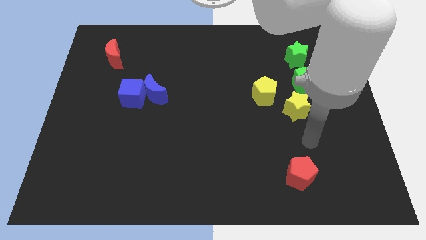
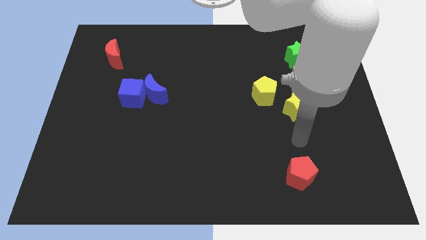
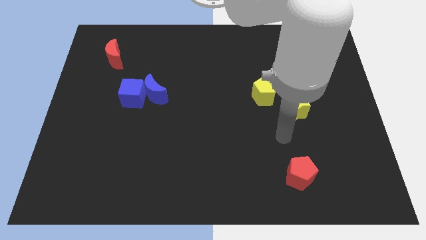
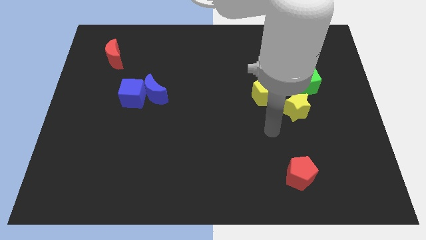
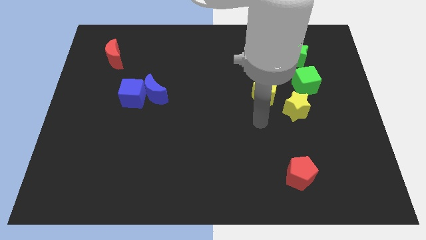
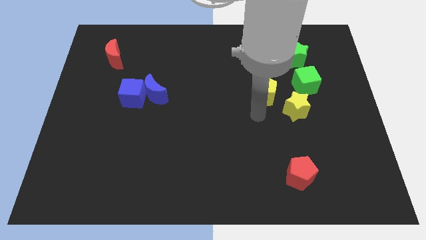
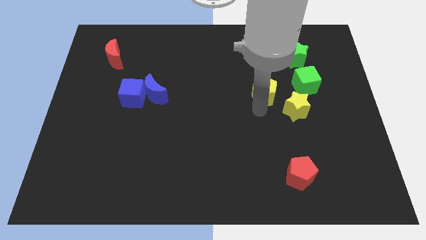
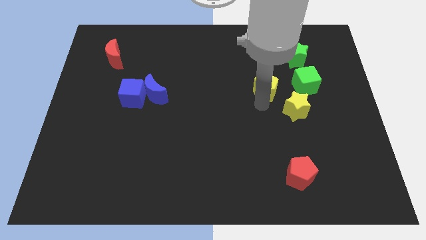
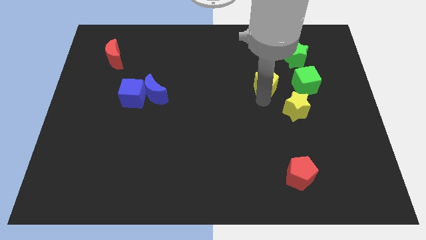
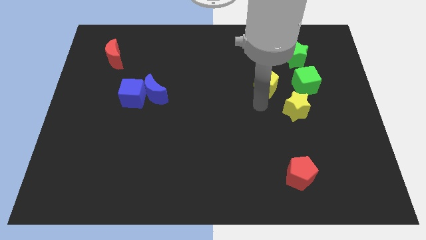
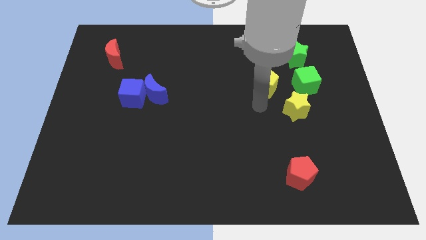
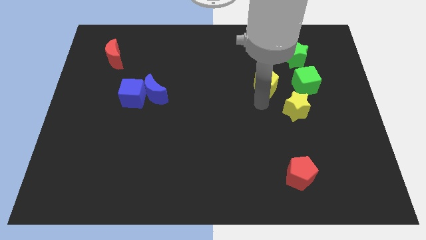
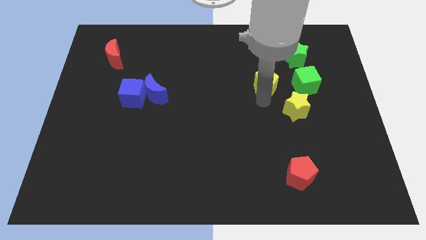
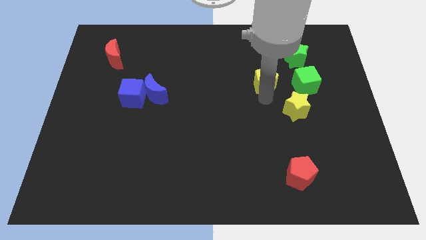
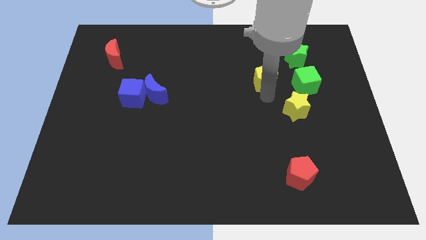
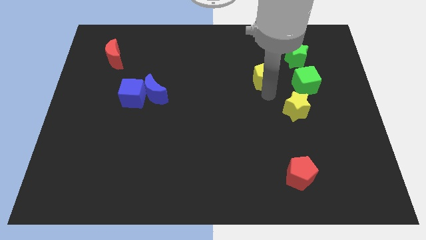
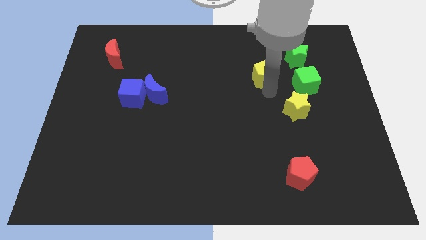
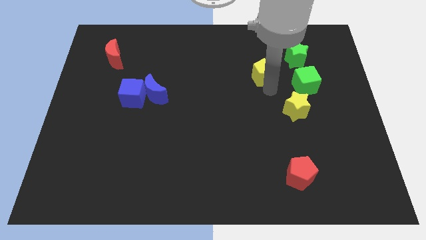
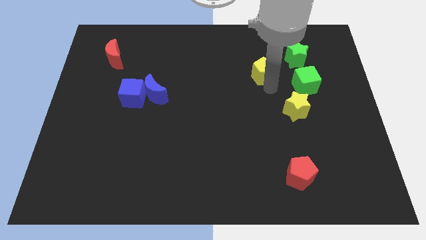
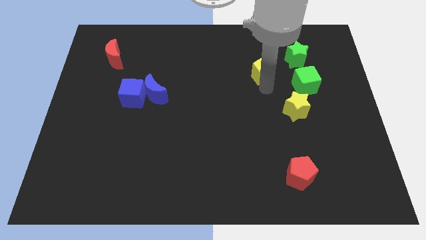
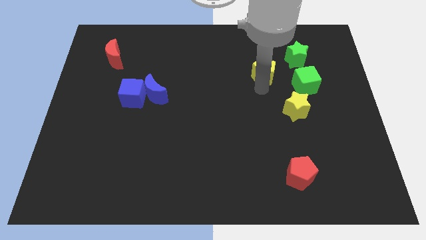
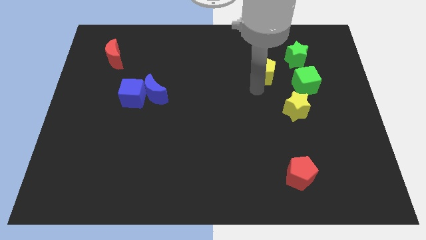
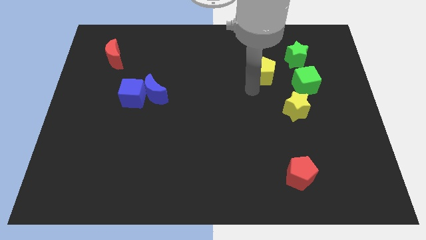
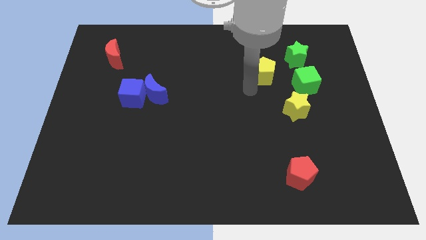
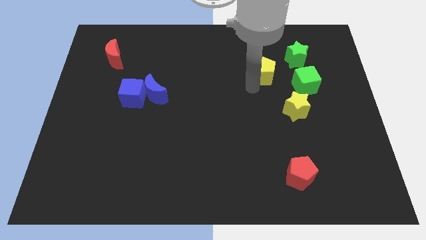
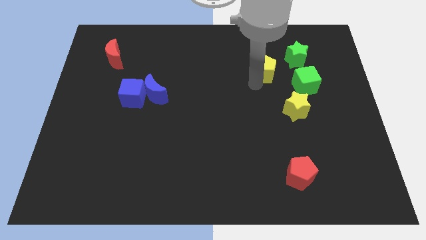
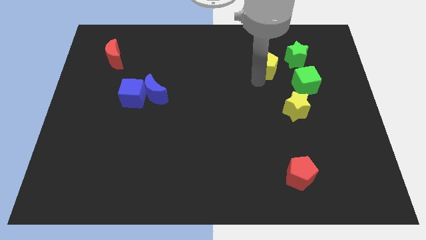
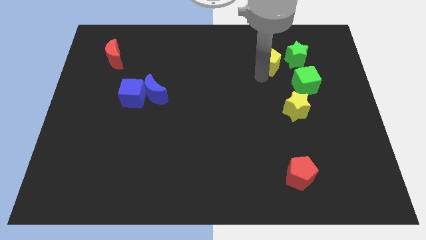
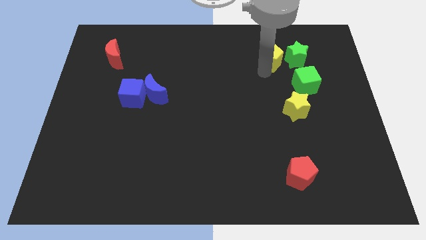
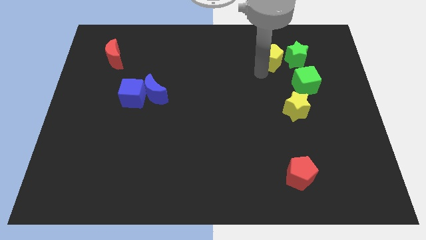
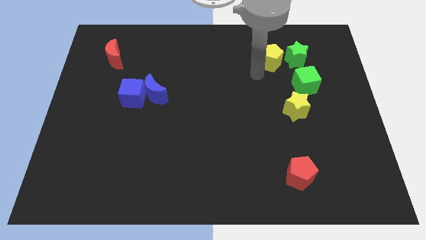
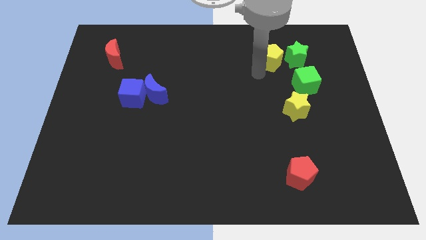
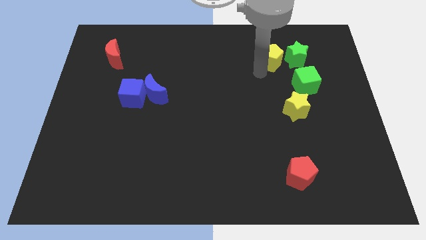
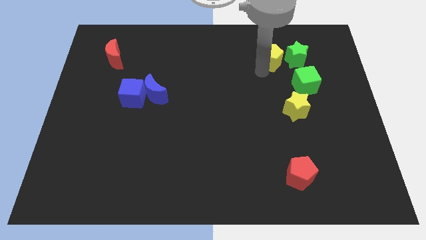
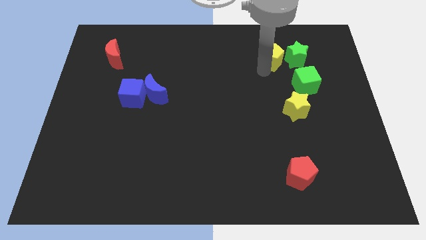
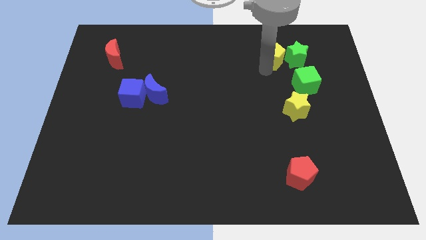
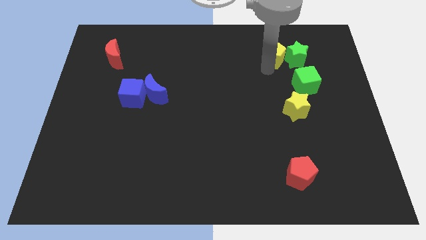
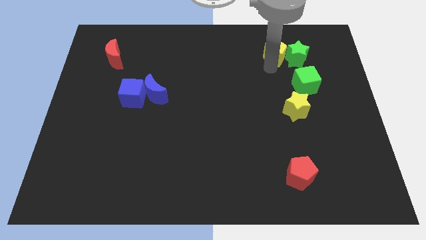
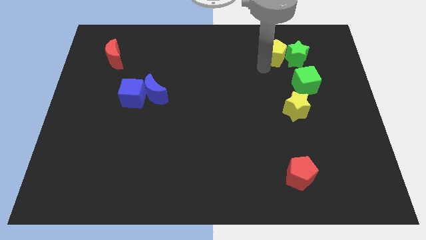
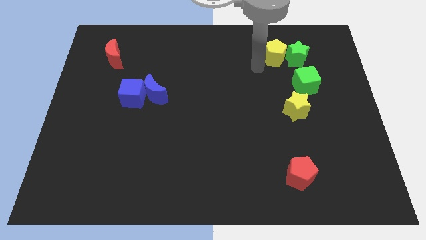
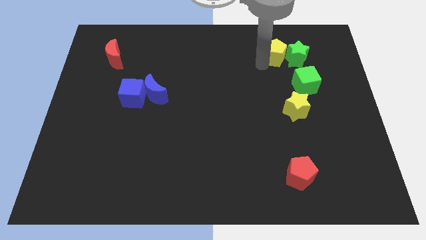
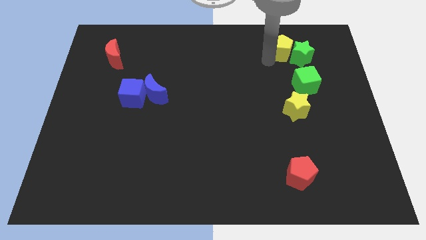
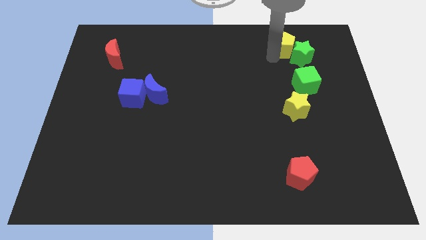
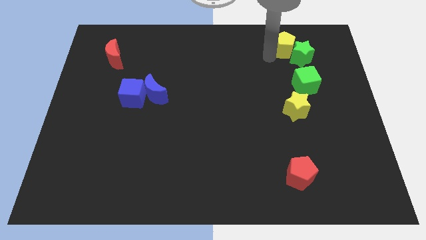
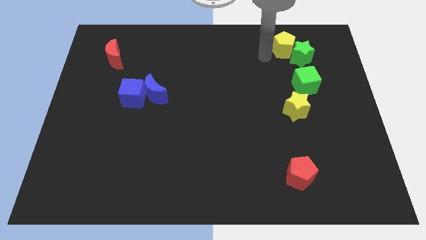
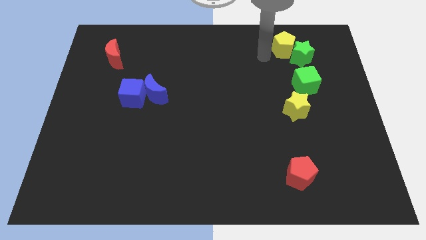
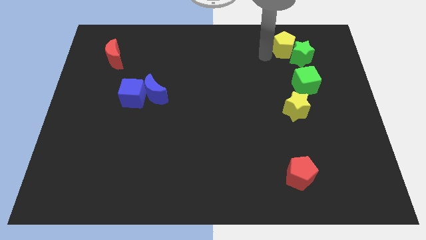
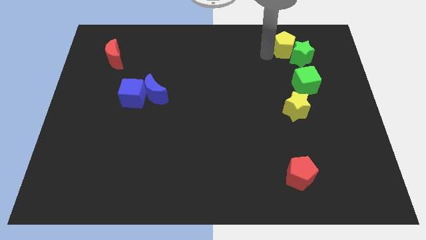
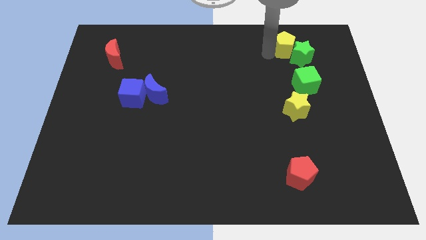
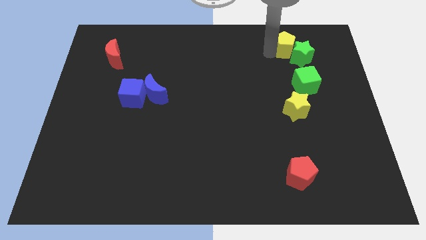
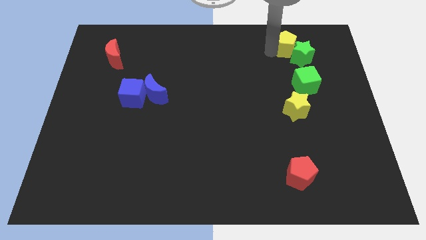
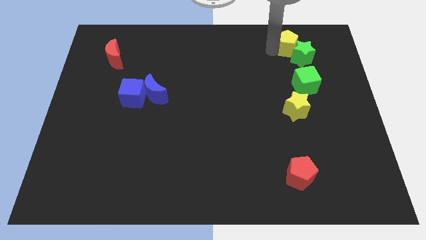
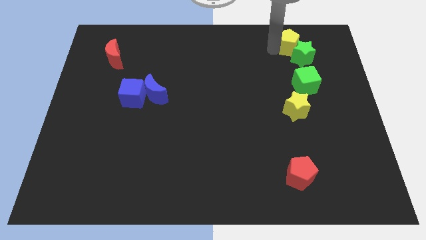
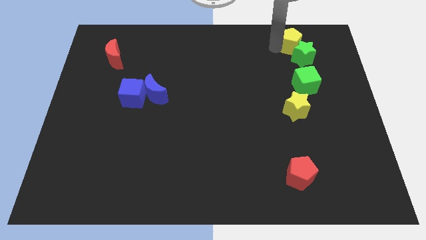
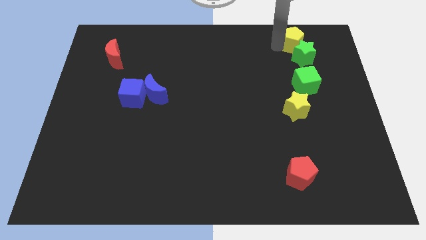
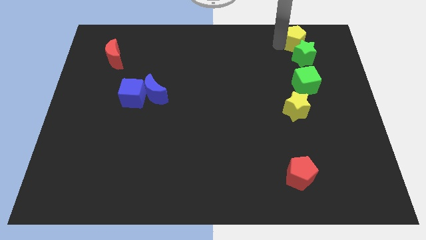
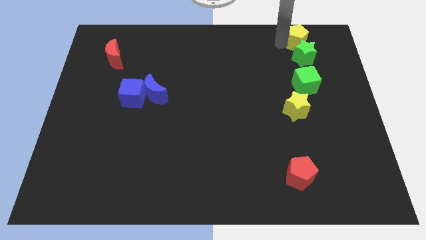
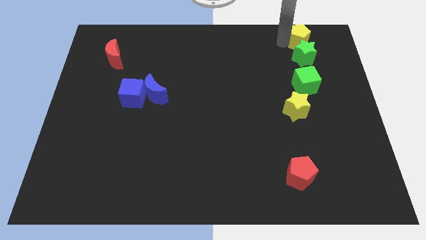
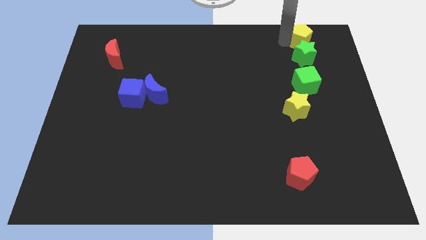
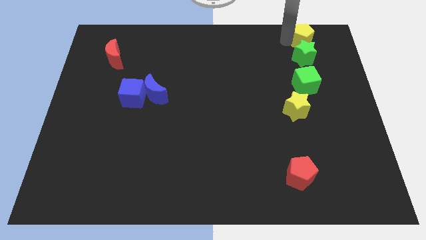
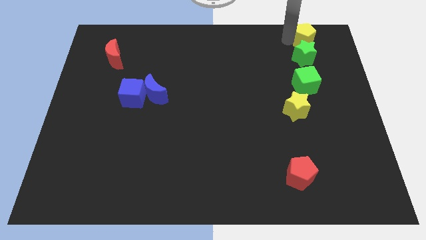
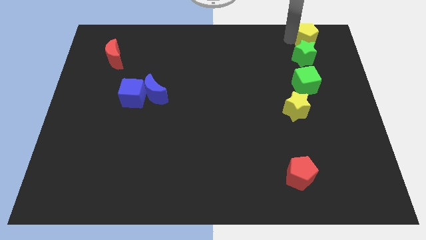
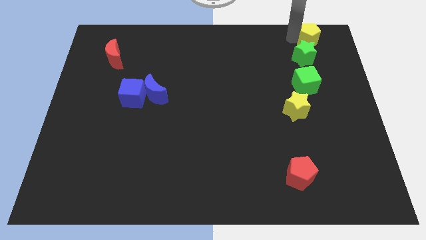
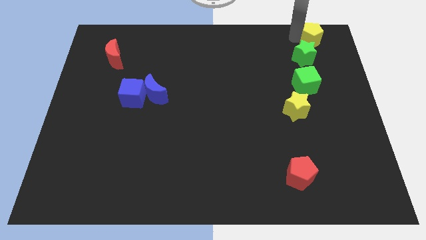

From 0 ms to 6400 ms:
move the yellow pentagon to the top right of the board
